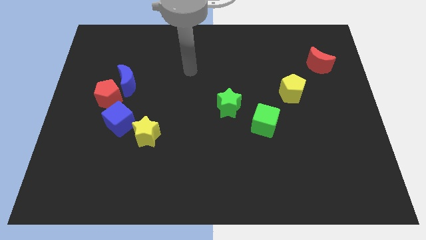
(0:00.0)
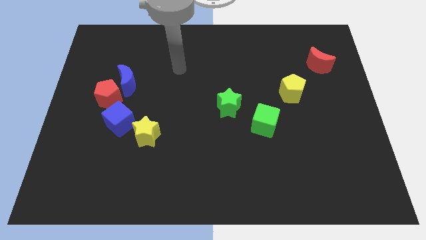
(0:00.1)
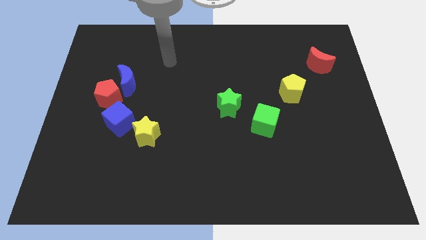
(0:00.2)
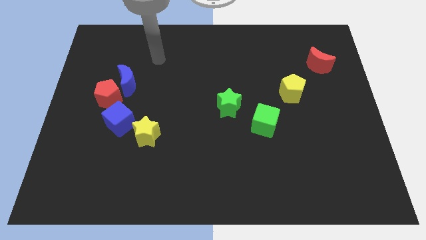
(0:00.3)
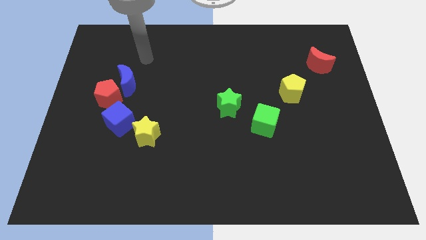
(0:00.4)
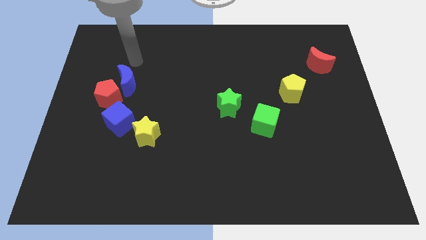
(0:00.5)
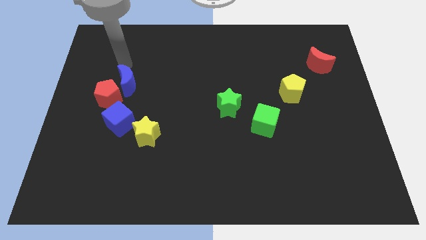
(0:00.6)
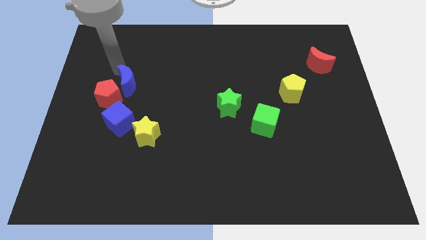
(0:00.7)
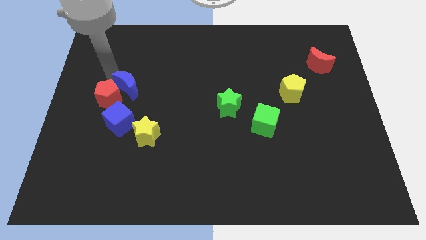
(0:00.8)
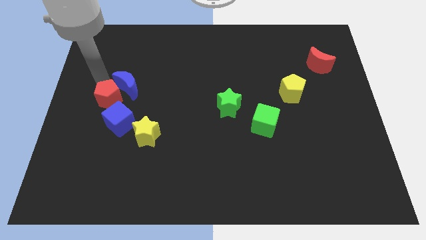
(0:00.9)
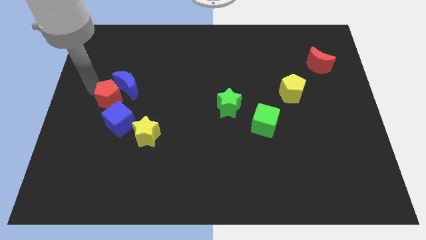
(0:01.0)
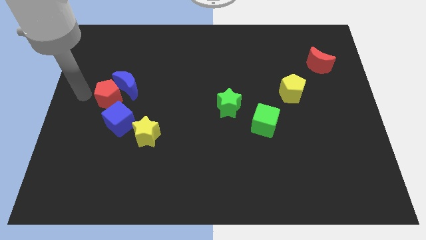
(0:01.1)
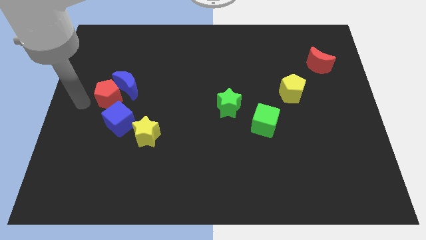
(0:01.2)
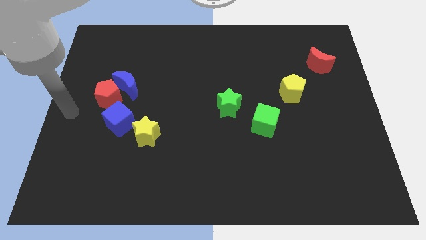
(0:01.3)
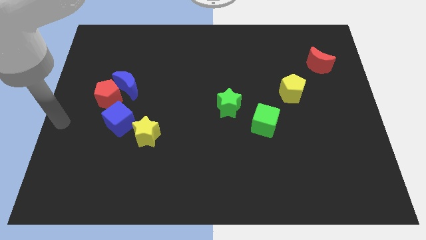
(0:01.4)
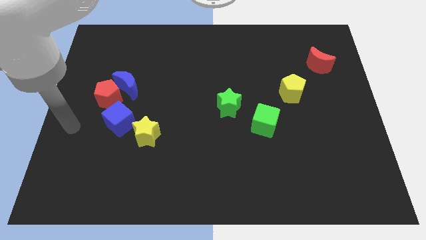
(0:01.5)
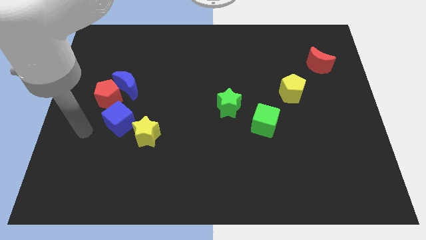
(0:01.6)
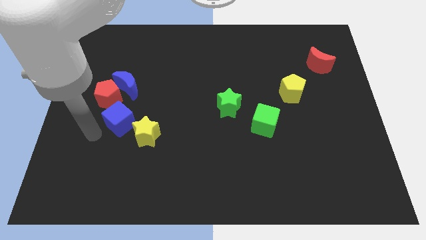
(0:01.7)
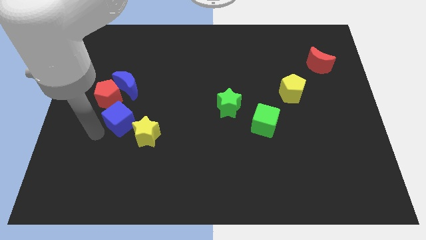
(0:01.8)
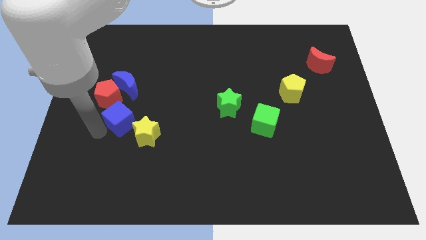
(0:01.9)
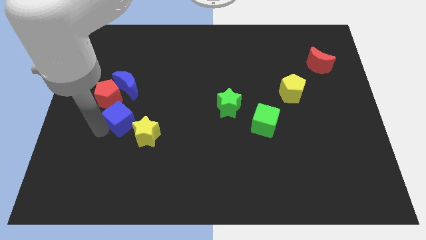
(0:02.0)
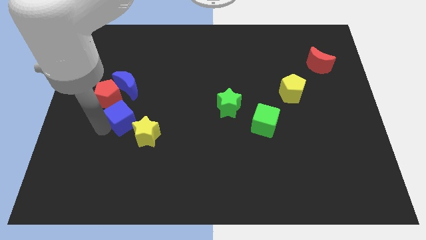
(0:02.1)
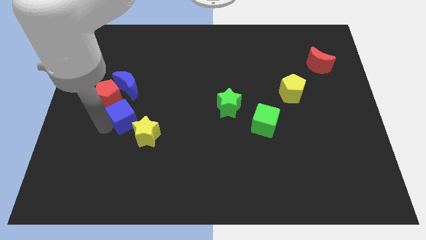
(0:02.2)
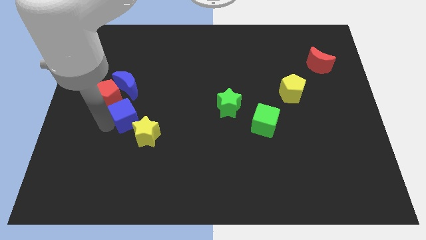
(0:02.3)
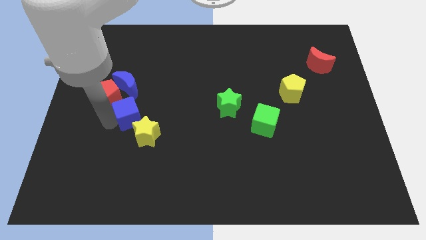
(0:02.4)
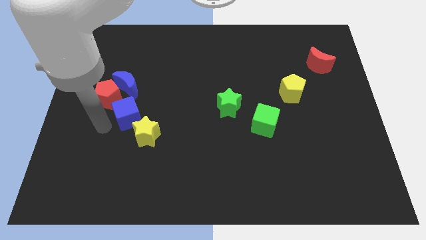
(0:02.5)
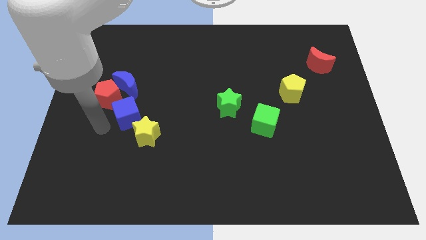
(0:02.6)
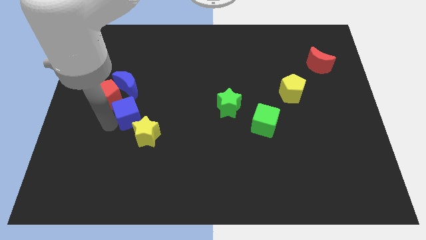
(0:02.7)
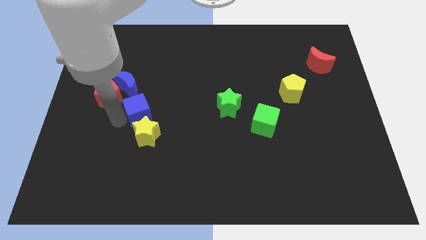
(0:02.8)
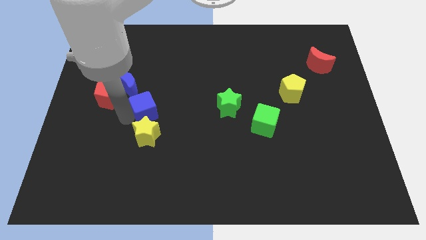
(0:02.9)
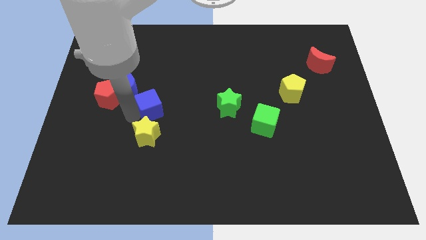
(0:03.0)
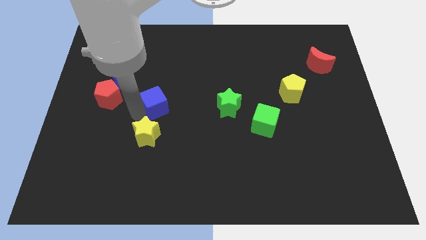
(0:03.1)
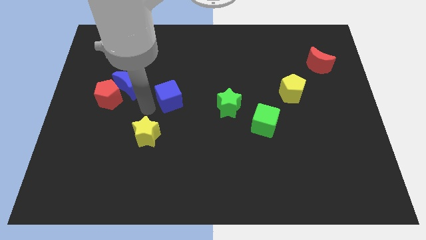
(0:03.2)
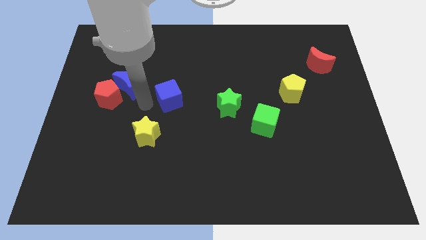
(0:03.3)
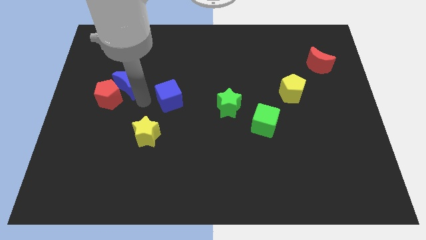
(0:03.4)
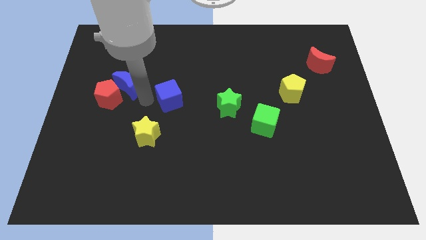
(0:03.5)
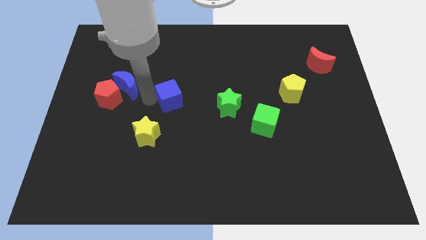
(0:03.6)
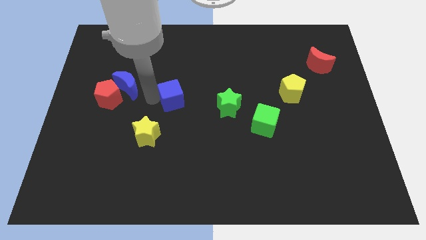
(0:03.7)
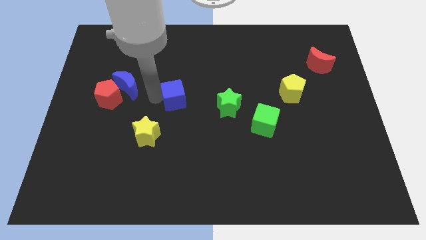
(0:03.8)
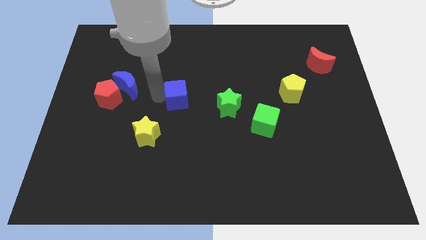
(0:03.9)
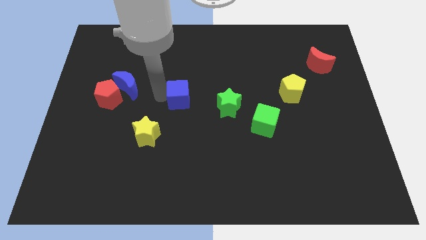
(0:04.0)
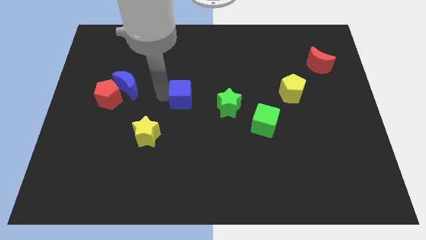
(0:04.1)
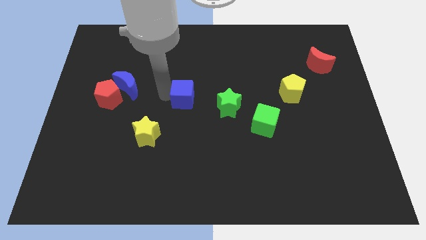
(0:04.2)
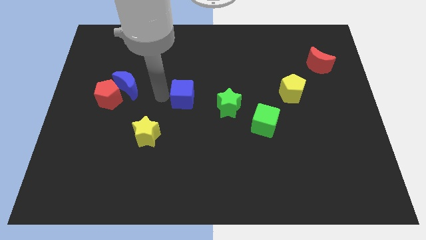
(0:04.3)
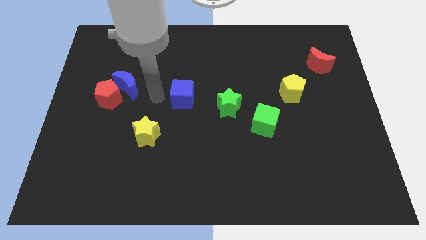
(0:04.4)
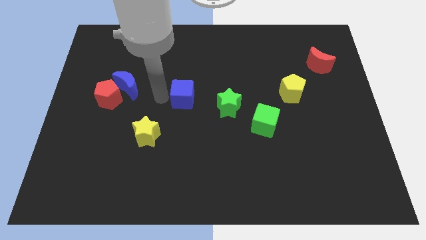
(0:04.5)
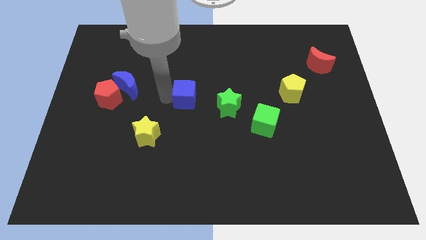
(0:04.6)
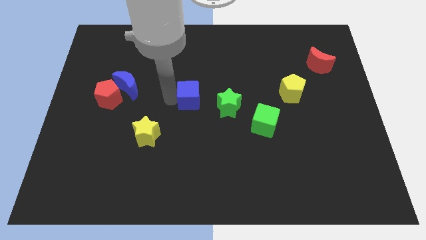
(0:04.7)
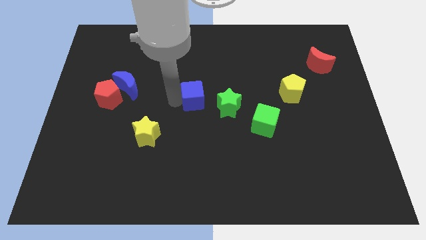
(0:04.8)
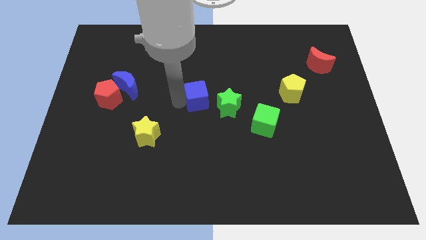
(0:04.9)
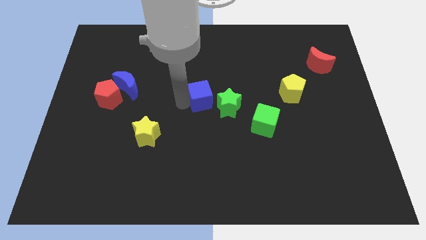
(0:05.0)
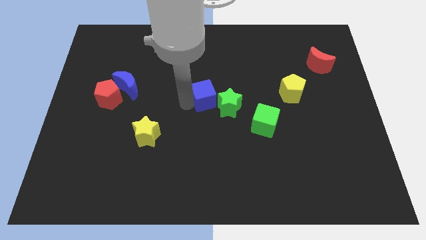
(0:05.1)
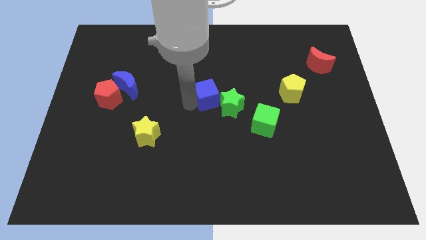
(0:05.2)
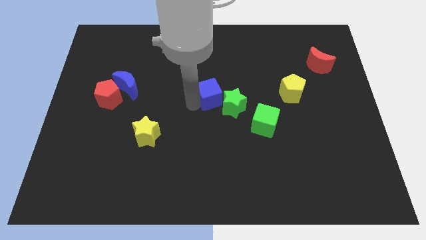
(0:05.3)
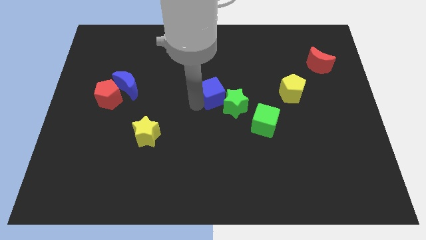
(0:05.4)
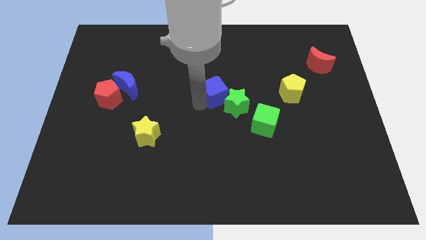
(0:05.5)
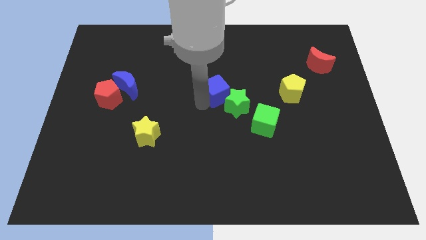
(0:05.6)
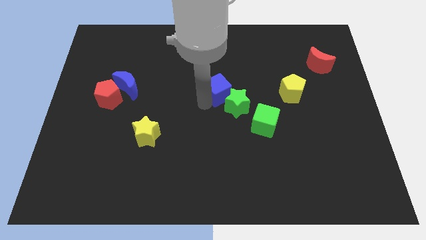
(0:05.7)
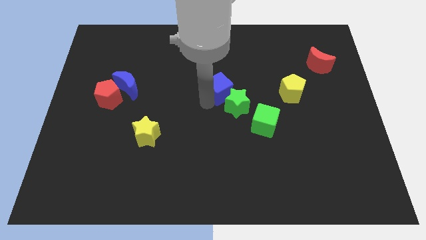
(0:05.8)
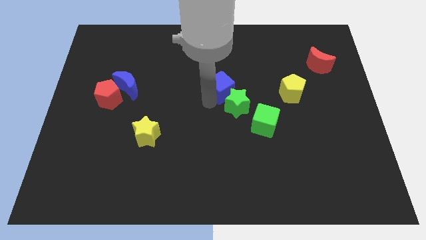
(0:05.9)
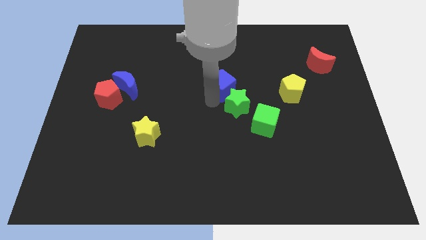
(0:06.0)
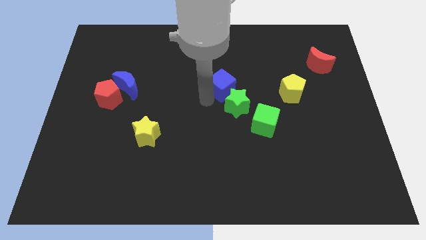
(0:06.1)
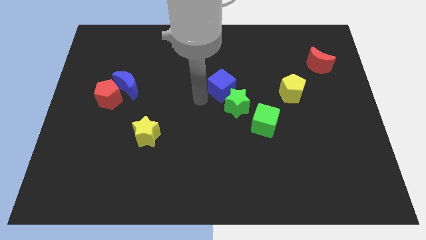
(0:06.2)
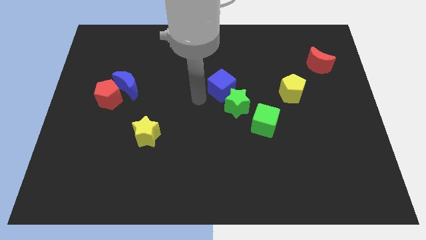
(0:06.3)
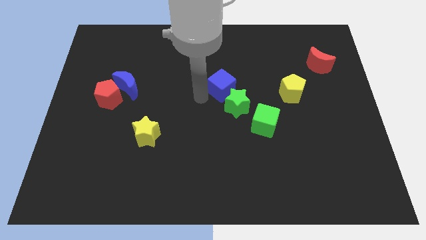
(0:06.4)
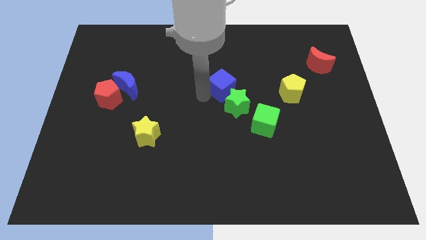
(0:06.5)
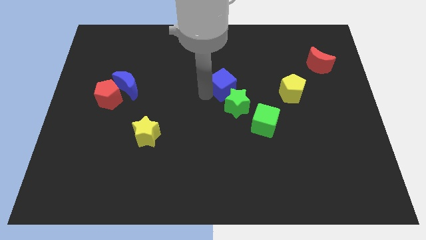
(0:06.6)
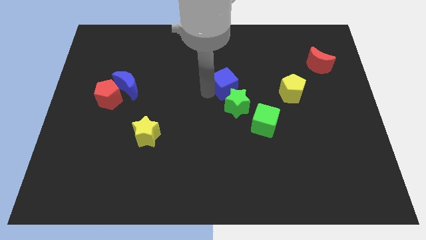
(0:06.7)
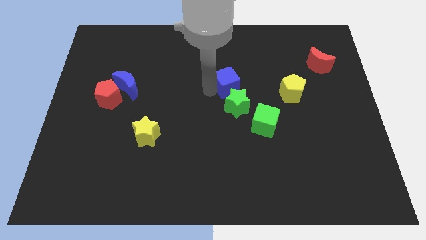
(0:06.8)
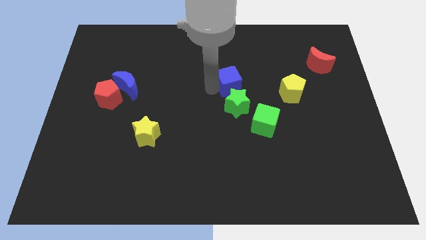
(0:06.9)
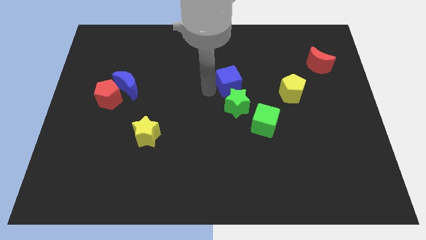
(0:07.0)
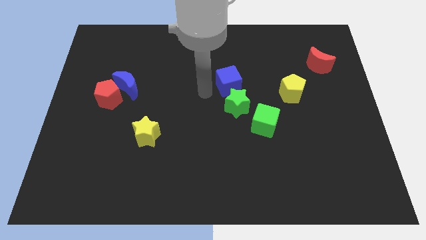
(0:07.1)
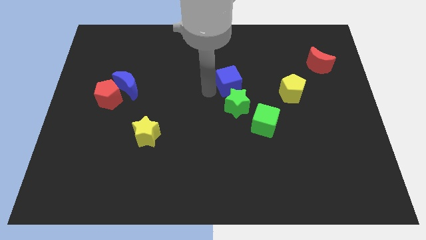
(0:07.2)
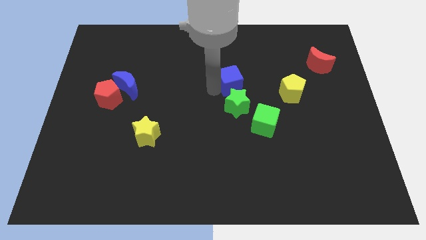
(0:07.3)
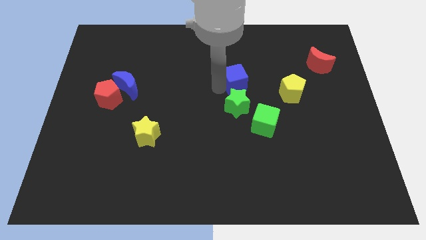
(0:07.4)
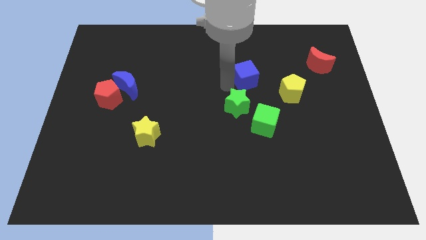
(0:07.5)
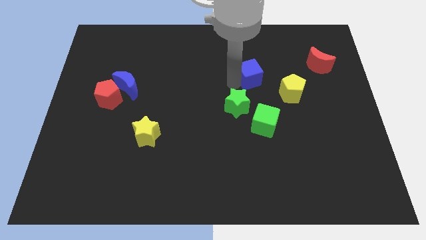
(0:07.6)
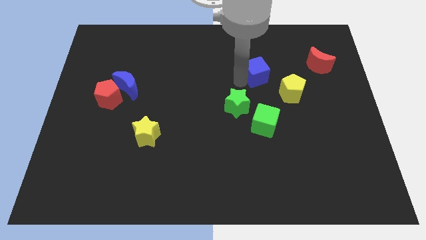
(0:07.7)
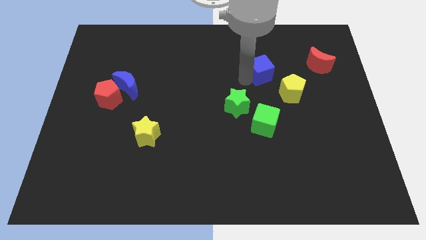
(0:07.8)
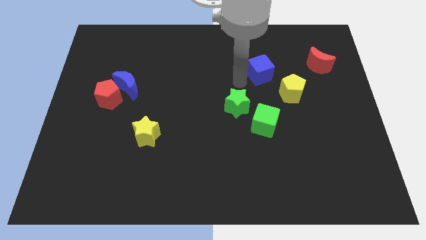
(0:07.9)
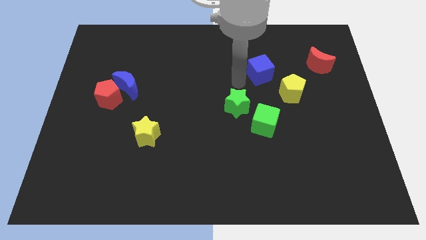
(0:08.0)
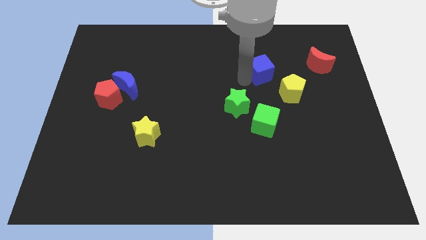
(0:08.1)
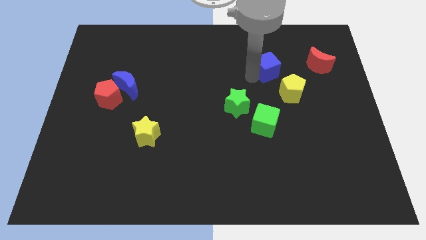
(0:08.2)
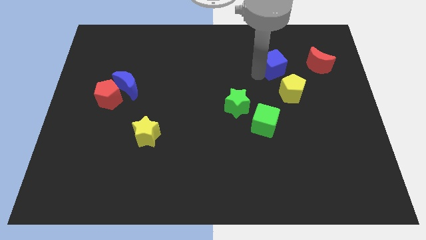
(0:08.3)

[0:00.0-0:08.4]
push the blue cube to the top side of the yellow pentagon
